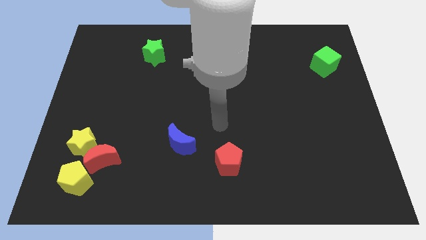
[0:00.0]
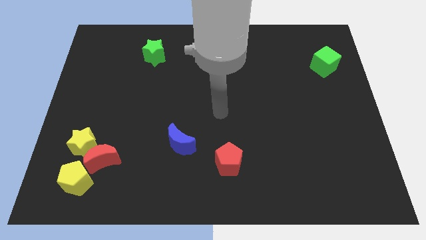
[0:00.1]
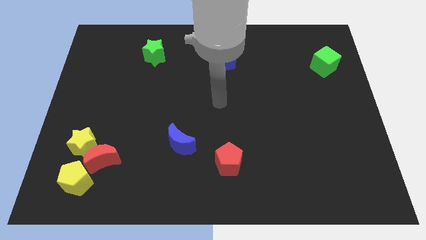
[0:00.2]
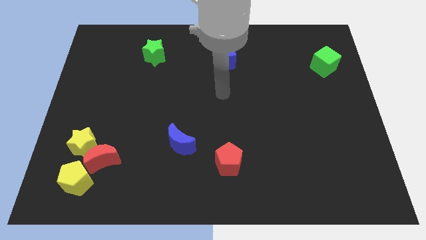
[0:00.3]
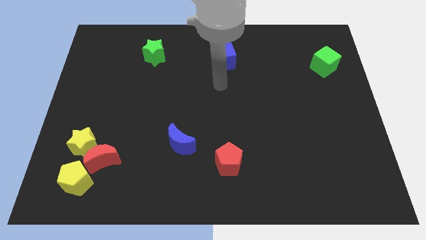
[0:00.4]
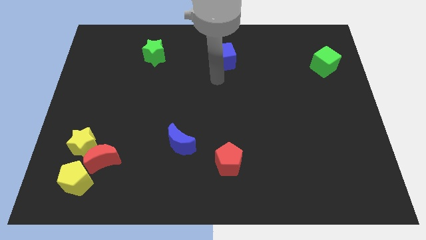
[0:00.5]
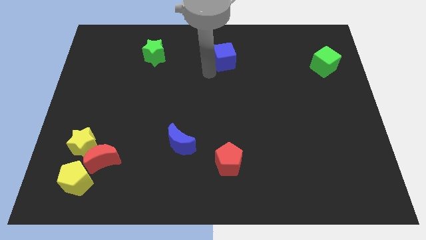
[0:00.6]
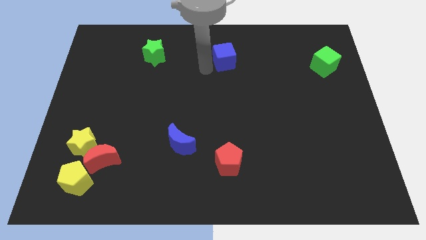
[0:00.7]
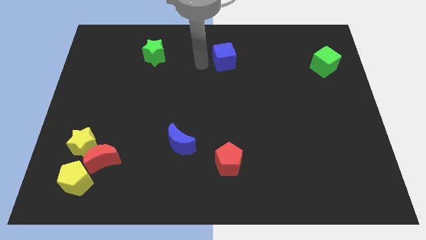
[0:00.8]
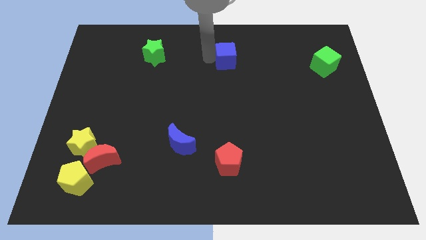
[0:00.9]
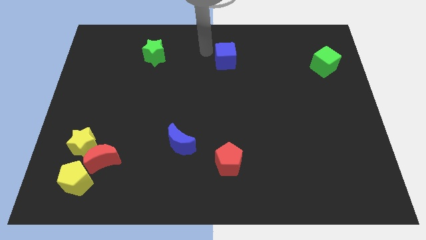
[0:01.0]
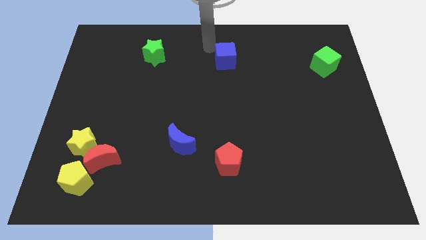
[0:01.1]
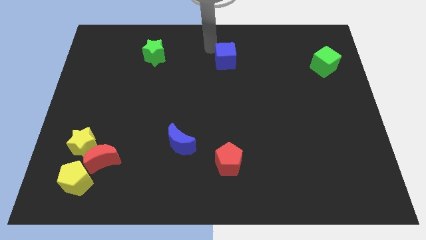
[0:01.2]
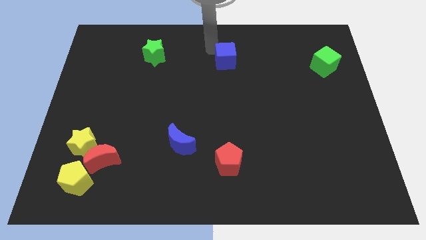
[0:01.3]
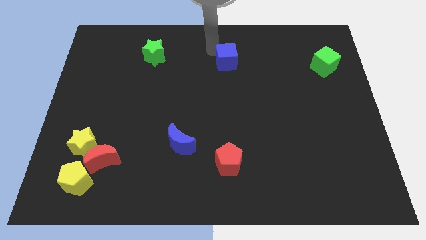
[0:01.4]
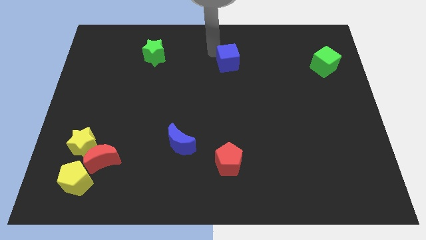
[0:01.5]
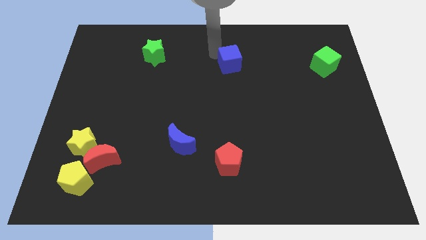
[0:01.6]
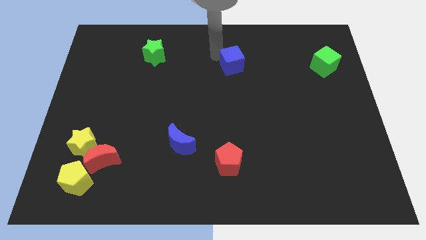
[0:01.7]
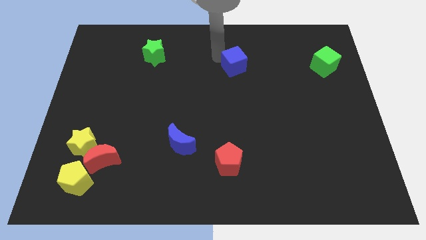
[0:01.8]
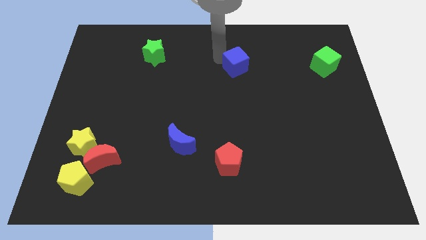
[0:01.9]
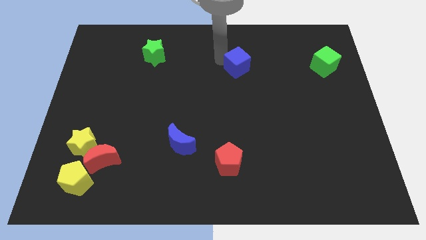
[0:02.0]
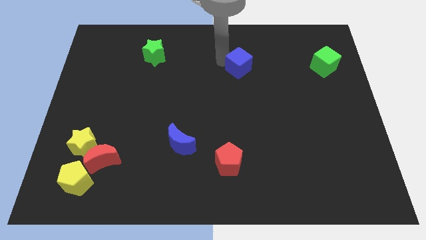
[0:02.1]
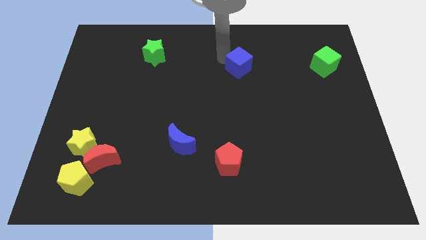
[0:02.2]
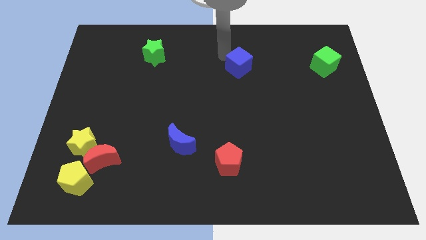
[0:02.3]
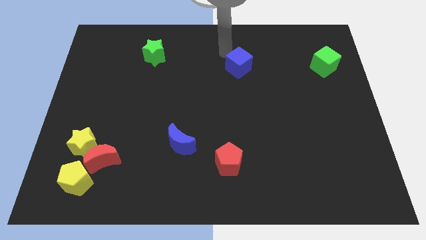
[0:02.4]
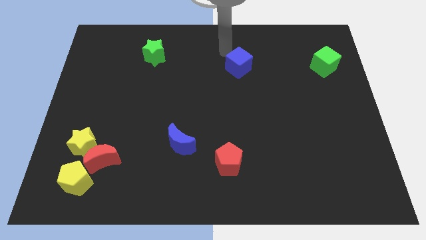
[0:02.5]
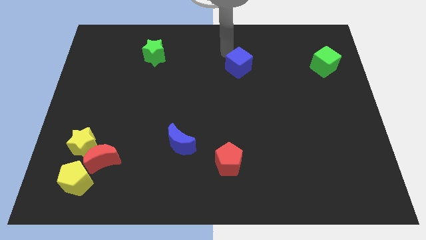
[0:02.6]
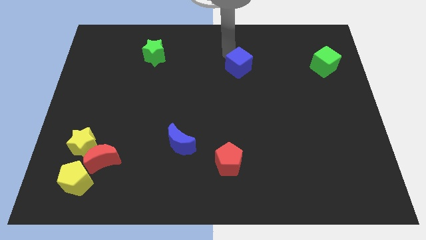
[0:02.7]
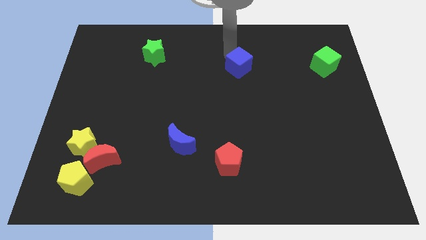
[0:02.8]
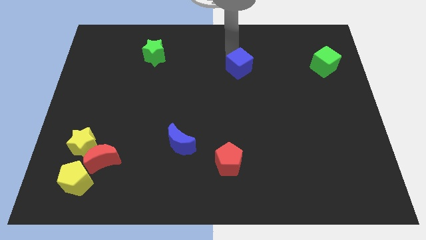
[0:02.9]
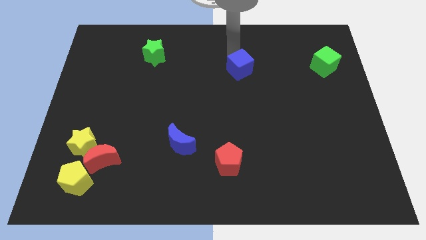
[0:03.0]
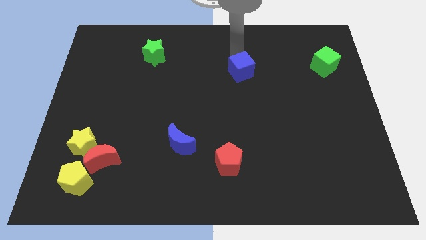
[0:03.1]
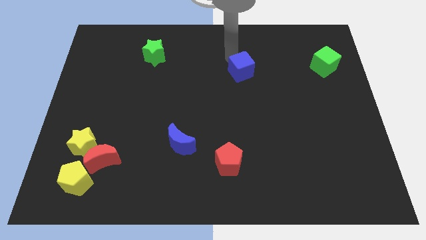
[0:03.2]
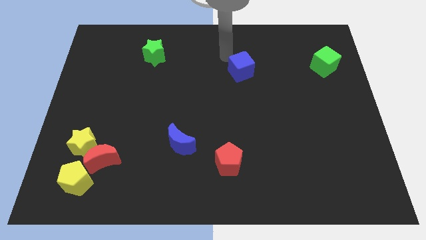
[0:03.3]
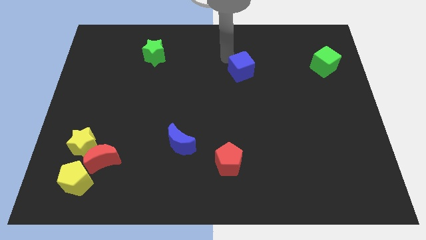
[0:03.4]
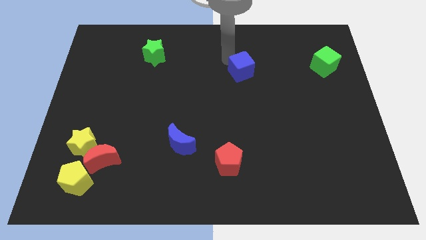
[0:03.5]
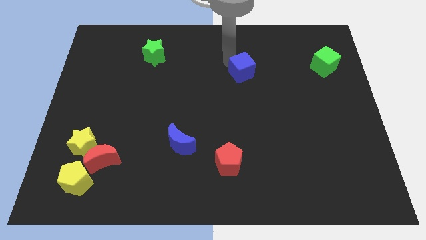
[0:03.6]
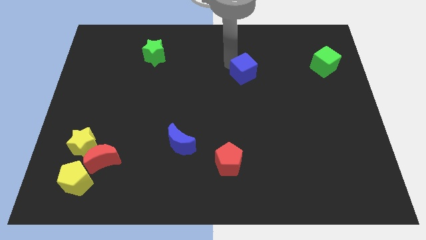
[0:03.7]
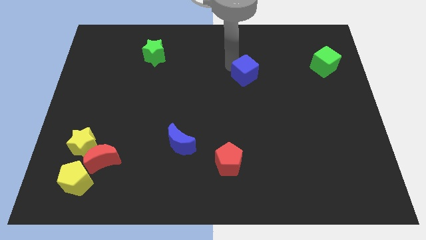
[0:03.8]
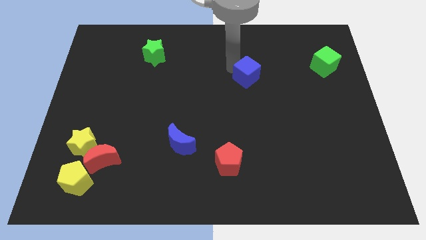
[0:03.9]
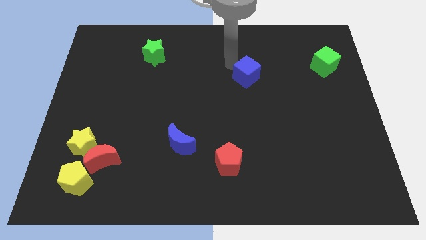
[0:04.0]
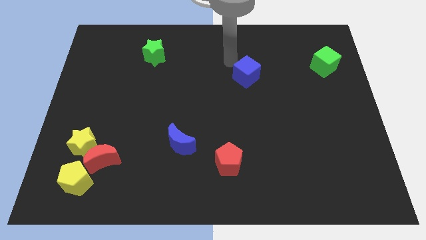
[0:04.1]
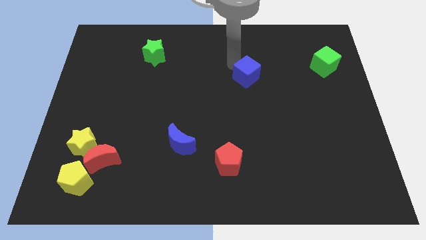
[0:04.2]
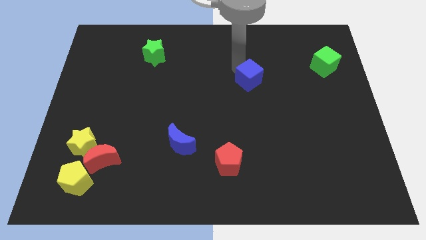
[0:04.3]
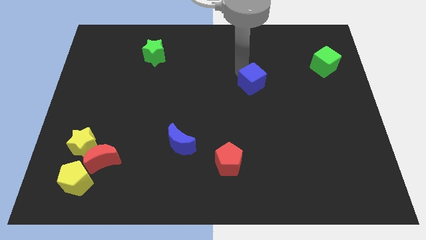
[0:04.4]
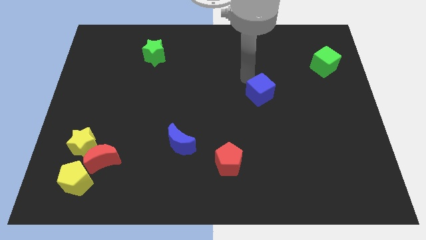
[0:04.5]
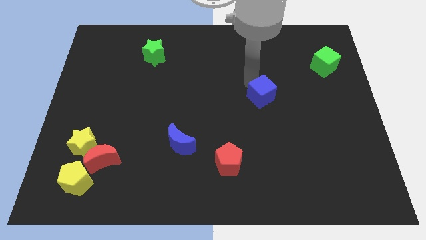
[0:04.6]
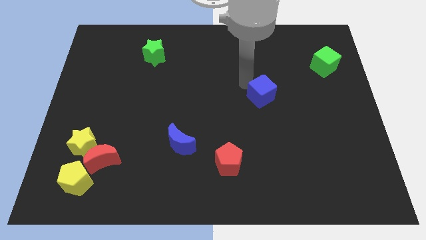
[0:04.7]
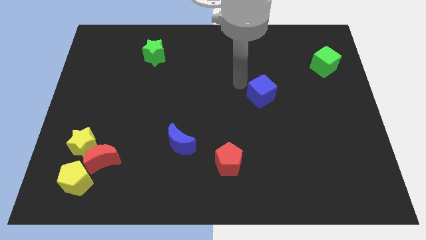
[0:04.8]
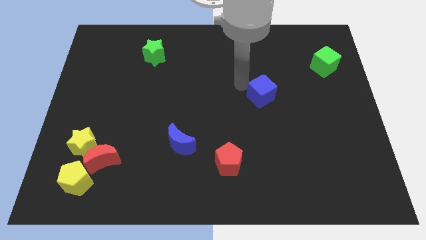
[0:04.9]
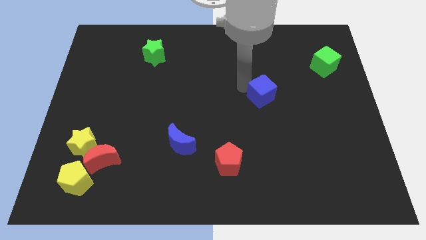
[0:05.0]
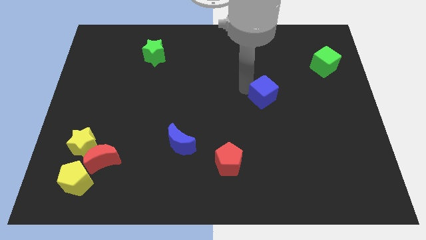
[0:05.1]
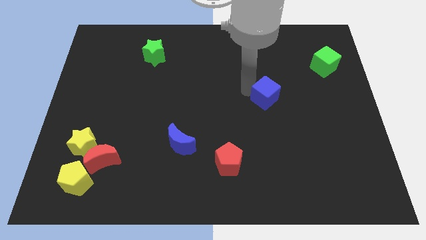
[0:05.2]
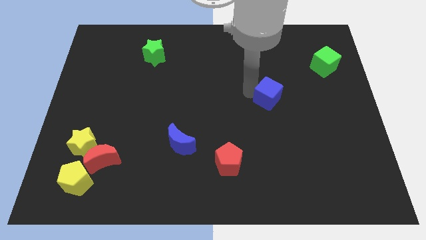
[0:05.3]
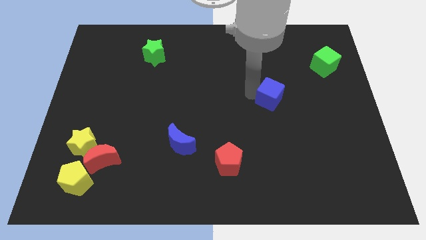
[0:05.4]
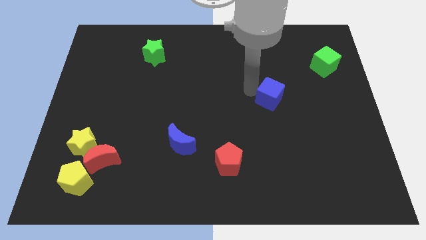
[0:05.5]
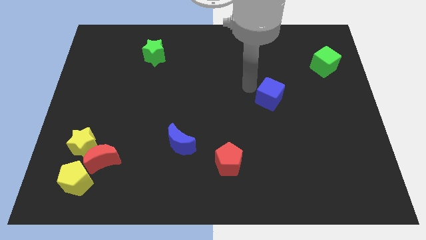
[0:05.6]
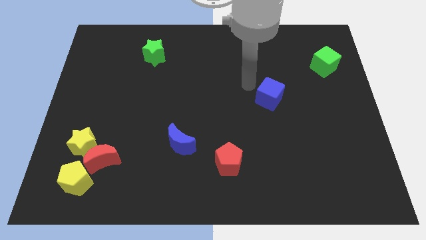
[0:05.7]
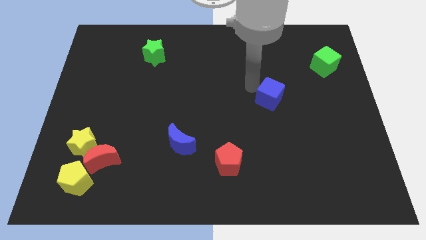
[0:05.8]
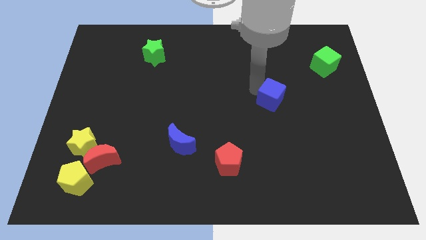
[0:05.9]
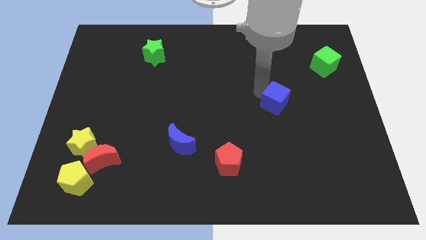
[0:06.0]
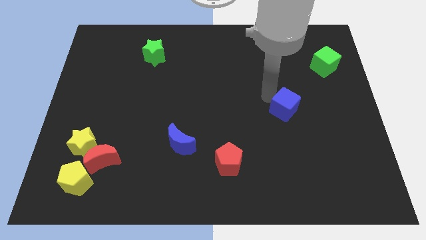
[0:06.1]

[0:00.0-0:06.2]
slide the blue cube down and to the right

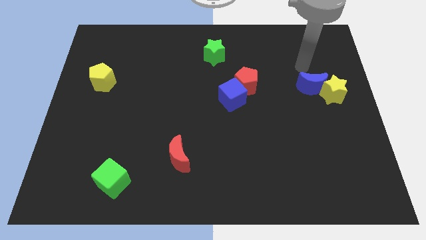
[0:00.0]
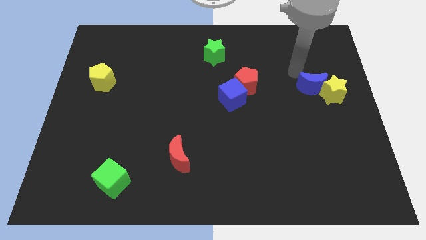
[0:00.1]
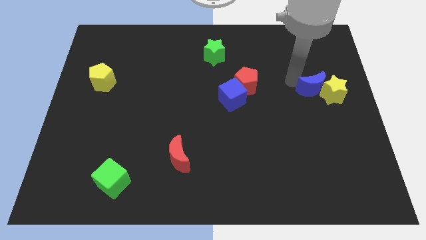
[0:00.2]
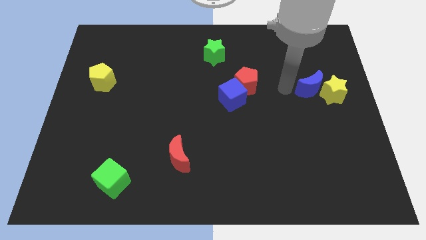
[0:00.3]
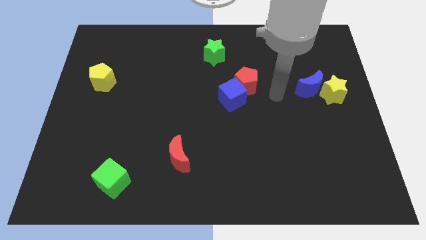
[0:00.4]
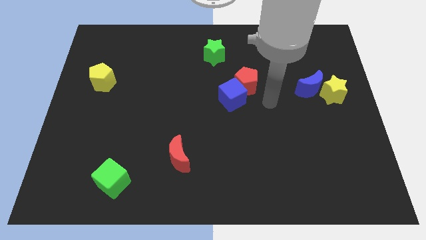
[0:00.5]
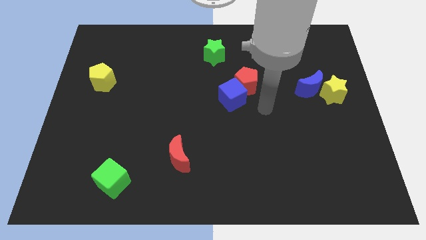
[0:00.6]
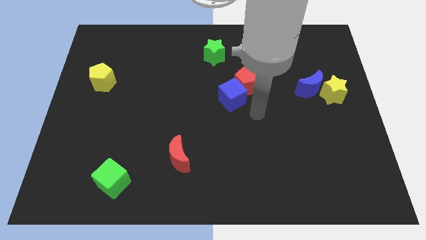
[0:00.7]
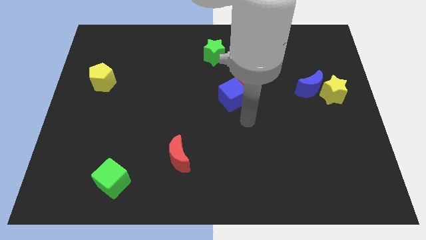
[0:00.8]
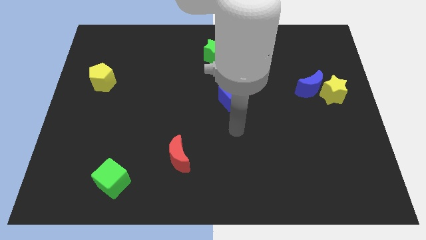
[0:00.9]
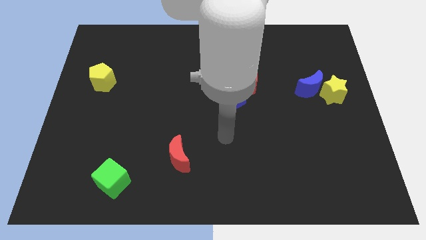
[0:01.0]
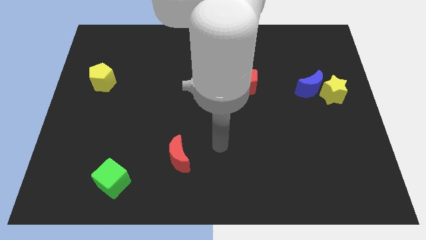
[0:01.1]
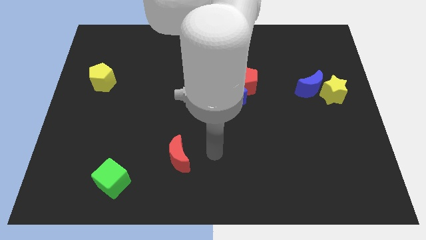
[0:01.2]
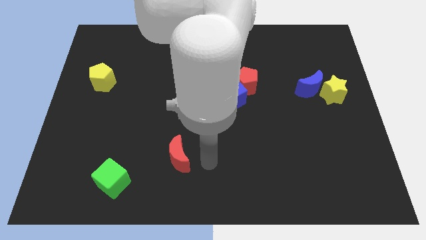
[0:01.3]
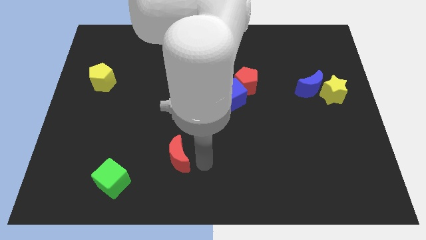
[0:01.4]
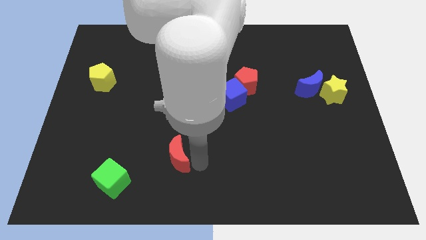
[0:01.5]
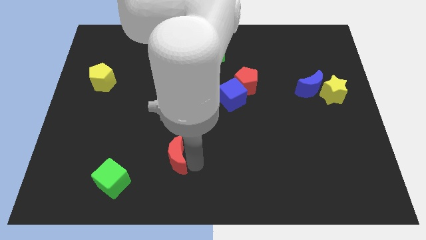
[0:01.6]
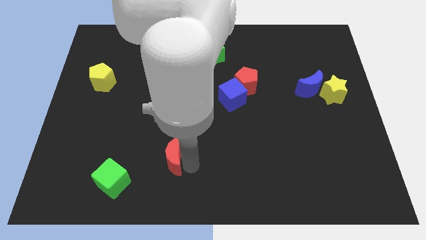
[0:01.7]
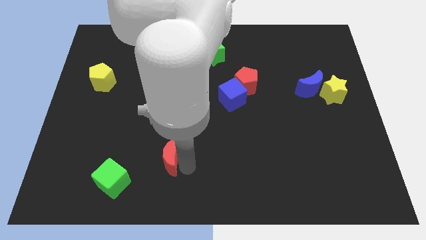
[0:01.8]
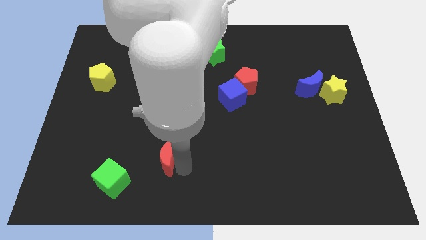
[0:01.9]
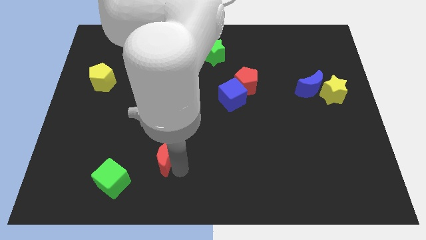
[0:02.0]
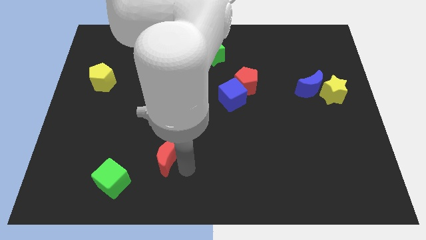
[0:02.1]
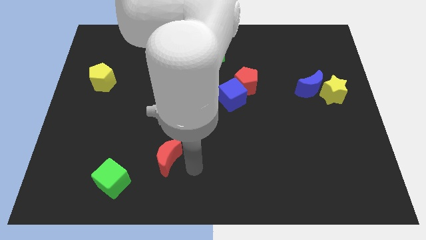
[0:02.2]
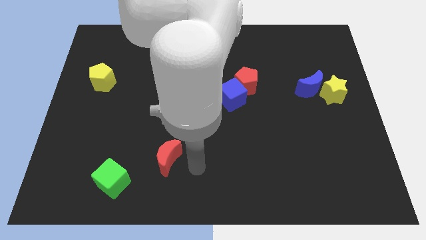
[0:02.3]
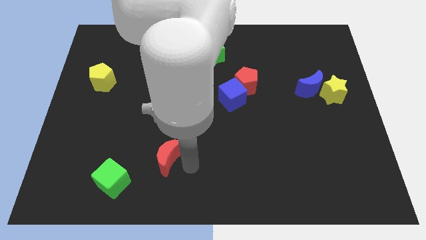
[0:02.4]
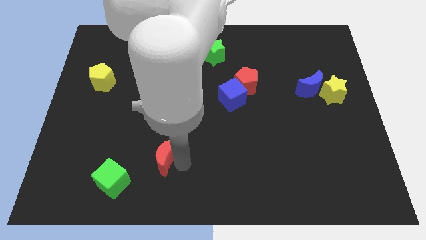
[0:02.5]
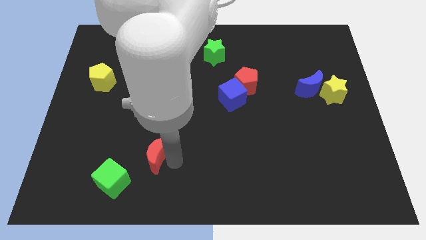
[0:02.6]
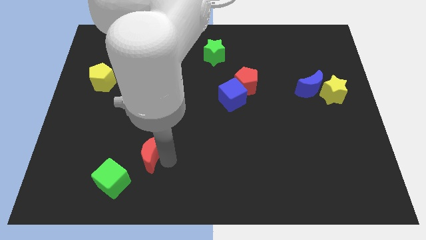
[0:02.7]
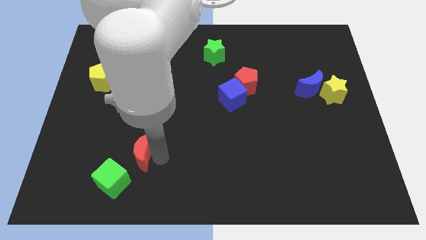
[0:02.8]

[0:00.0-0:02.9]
push the red moon a little bit left
